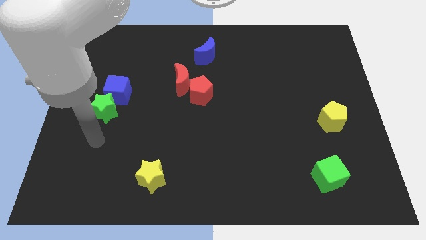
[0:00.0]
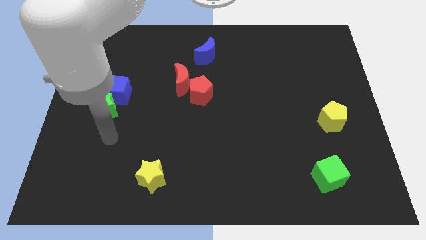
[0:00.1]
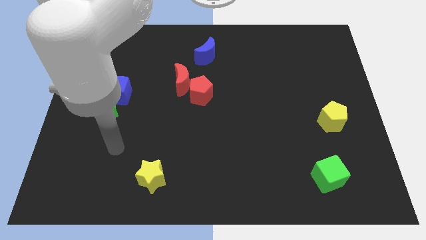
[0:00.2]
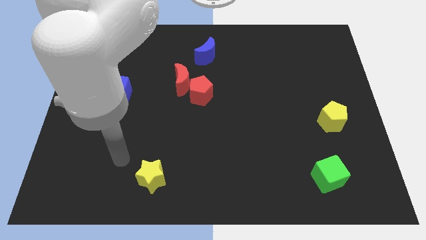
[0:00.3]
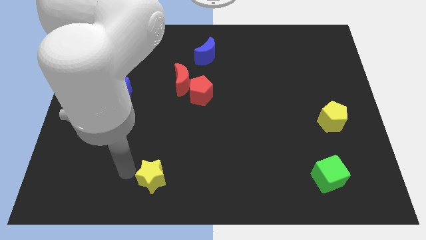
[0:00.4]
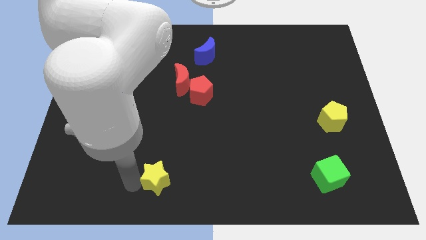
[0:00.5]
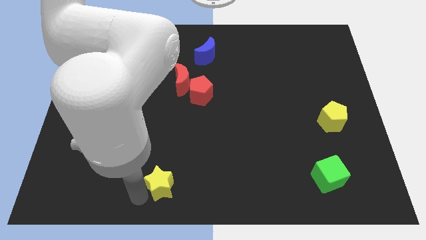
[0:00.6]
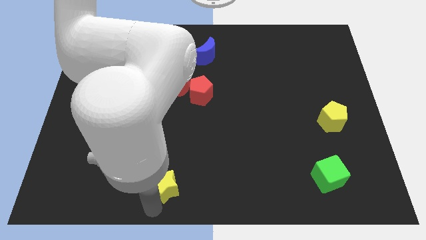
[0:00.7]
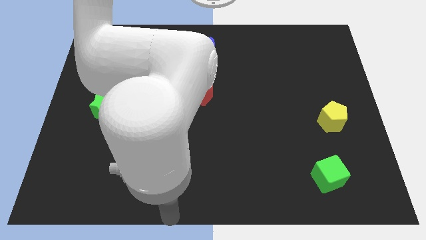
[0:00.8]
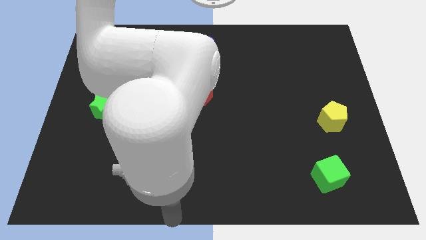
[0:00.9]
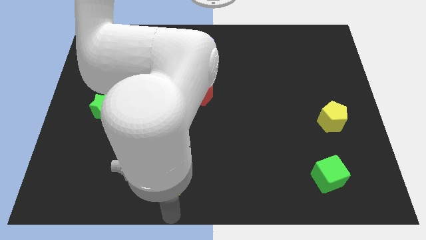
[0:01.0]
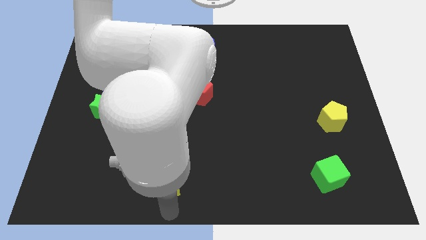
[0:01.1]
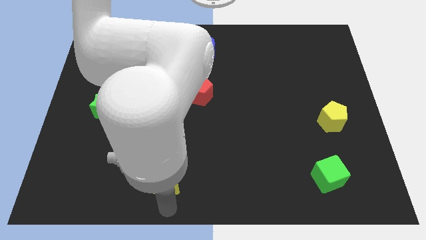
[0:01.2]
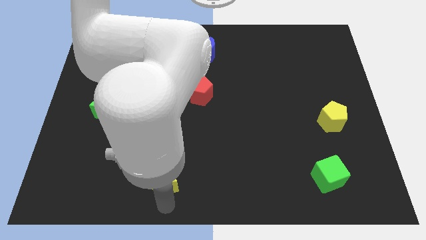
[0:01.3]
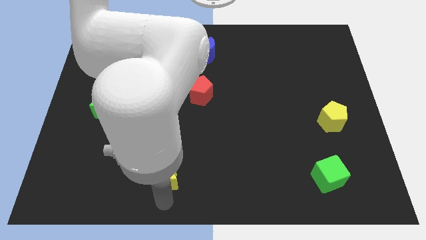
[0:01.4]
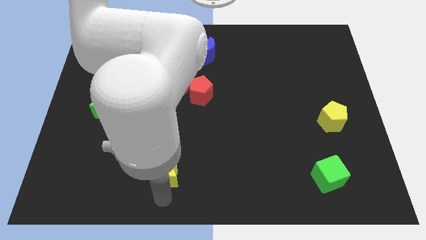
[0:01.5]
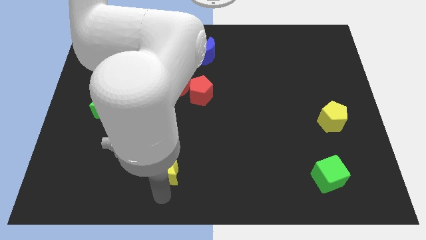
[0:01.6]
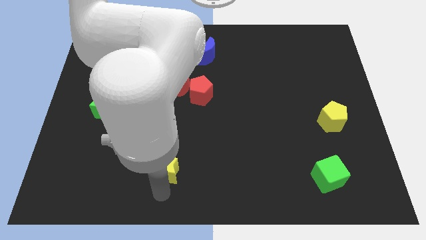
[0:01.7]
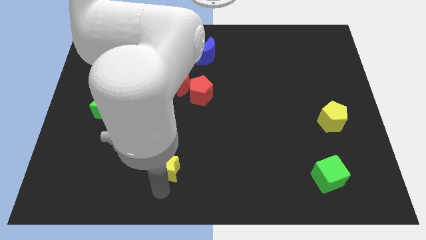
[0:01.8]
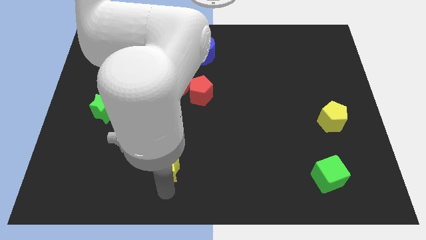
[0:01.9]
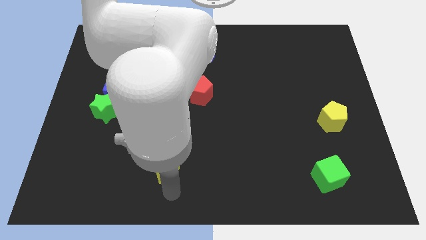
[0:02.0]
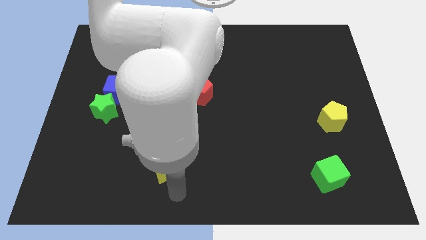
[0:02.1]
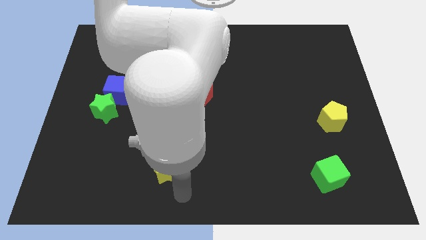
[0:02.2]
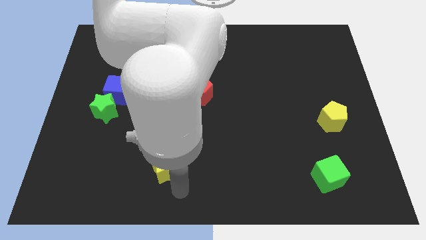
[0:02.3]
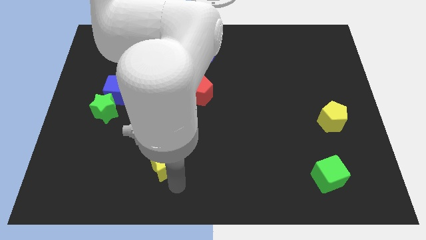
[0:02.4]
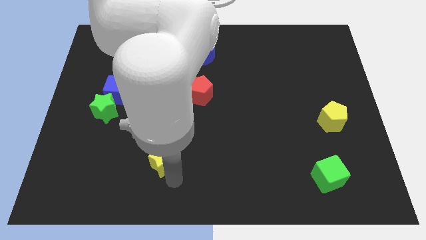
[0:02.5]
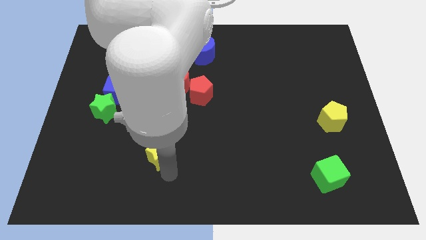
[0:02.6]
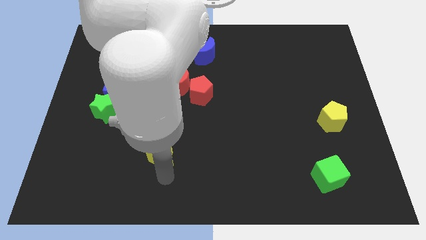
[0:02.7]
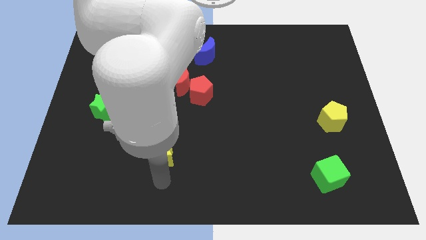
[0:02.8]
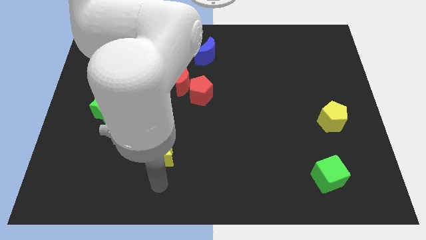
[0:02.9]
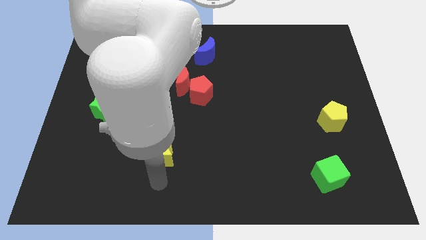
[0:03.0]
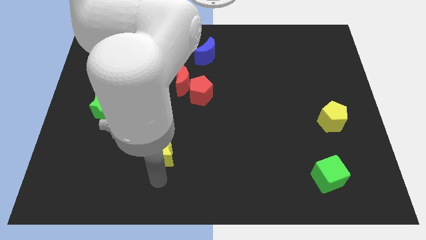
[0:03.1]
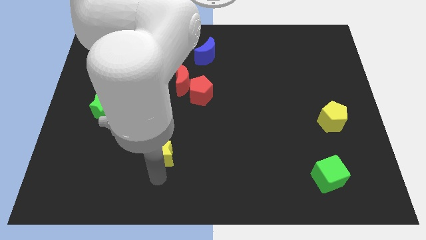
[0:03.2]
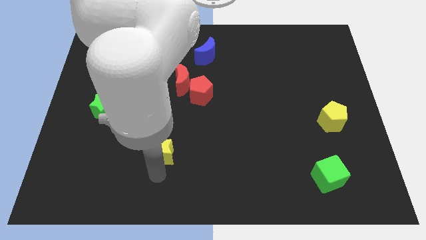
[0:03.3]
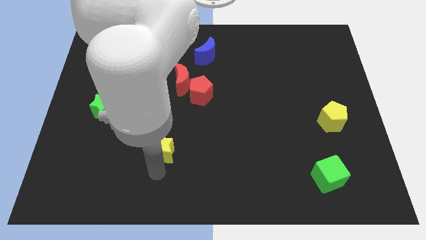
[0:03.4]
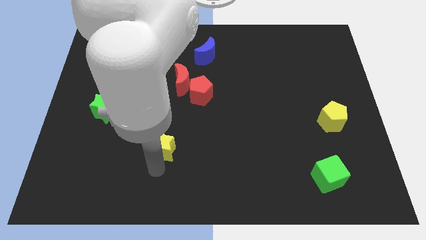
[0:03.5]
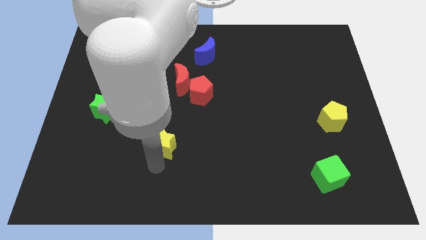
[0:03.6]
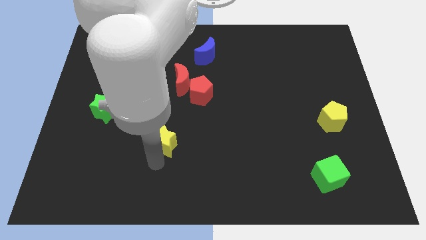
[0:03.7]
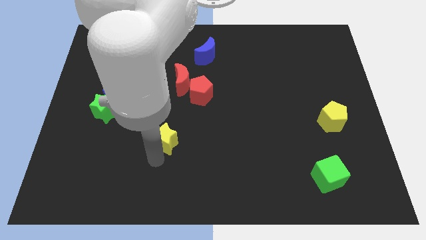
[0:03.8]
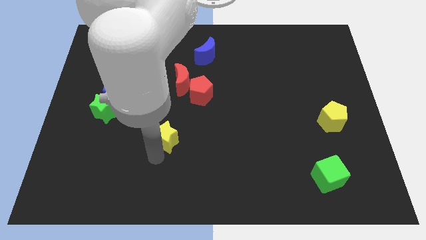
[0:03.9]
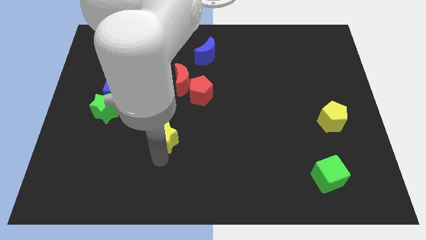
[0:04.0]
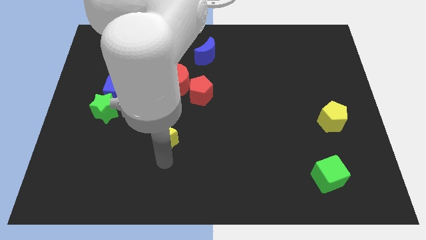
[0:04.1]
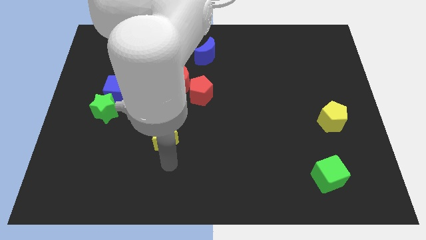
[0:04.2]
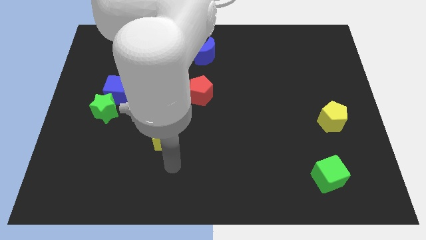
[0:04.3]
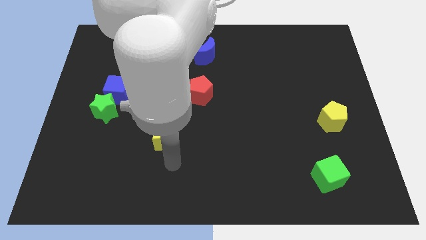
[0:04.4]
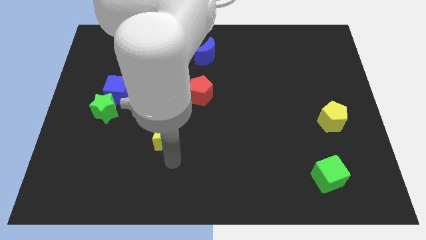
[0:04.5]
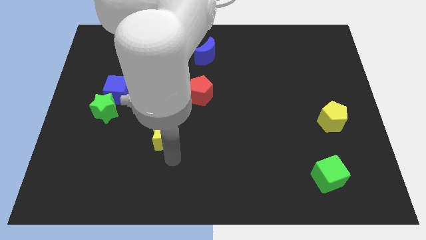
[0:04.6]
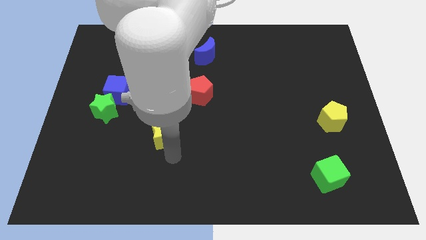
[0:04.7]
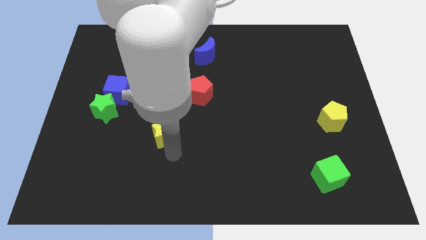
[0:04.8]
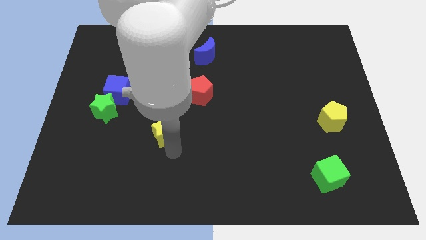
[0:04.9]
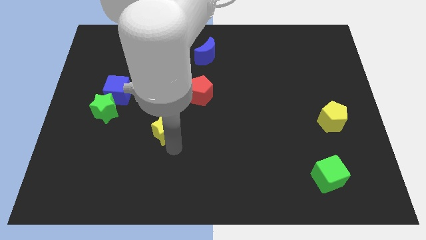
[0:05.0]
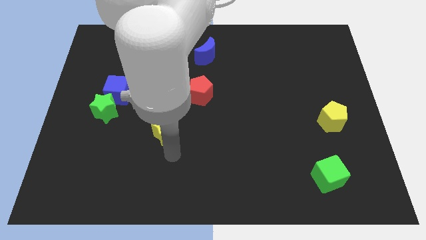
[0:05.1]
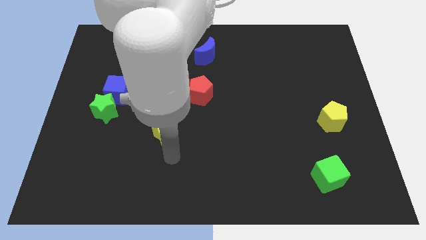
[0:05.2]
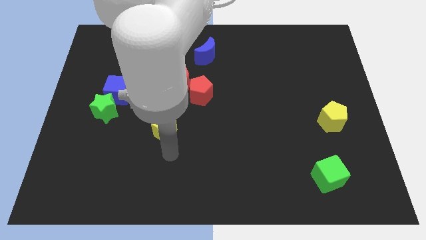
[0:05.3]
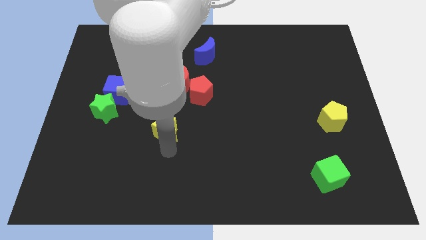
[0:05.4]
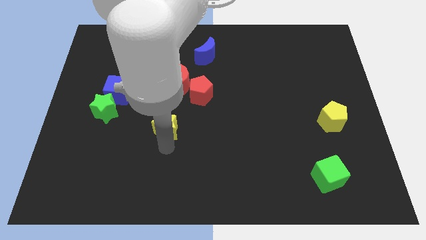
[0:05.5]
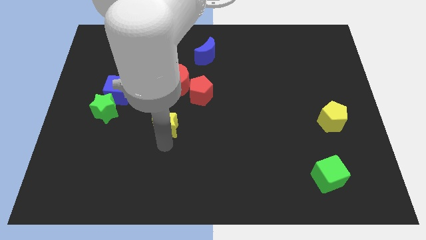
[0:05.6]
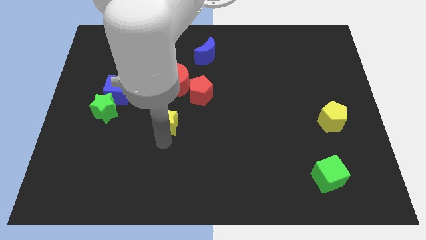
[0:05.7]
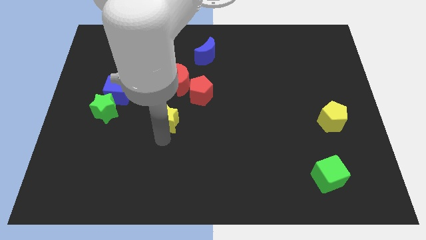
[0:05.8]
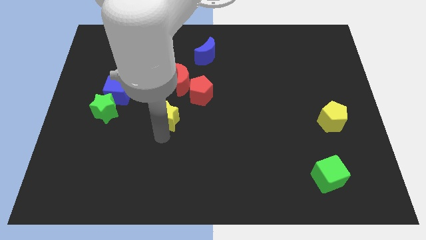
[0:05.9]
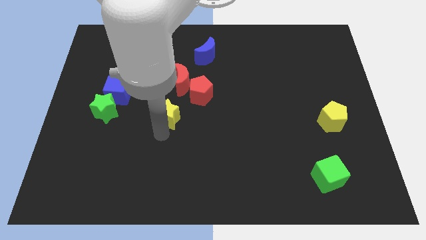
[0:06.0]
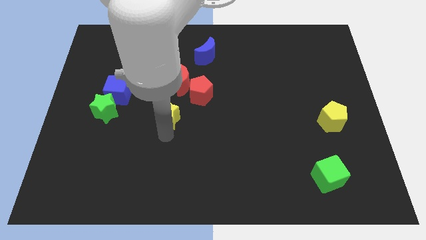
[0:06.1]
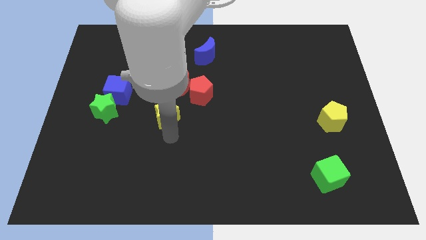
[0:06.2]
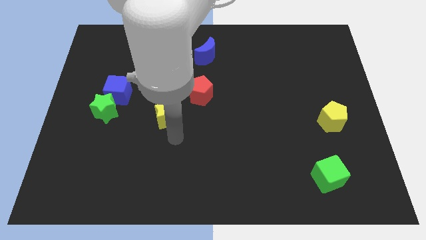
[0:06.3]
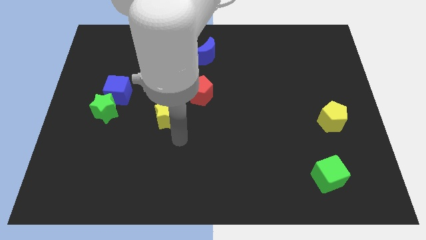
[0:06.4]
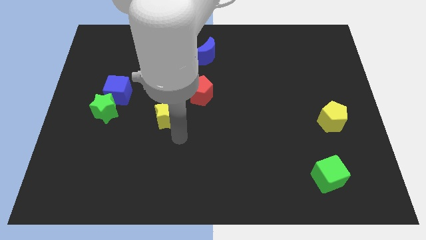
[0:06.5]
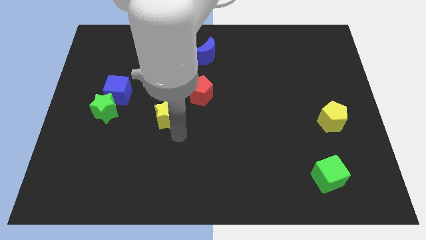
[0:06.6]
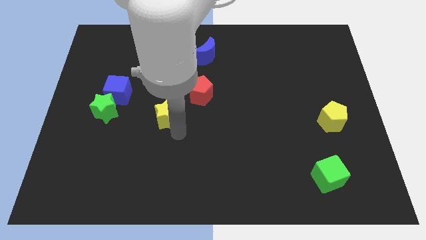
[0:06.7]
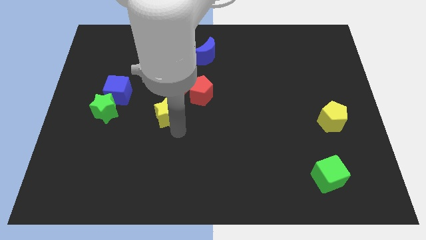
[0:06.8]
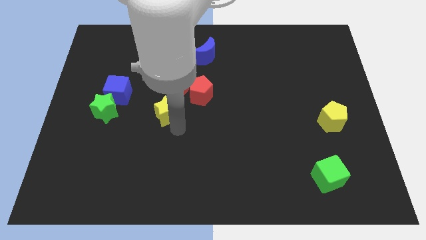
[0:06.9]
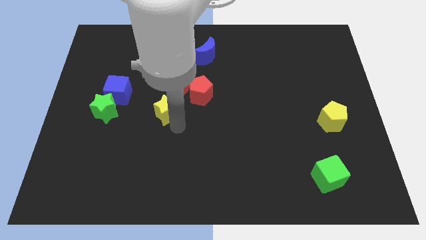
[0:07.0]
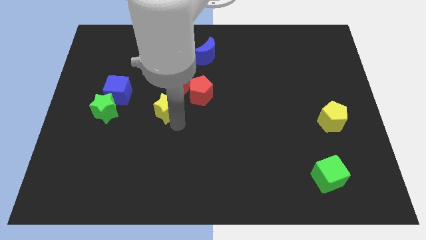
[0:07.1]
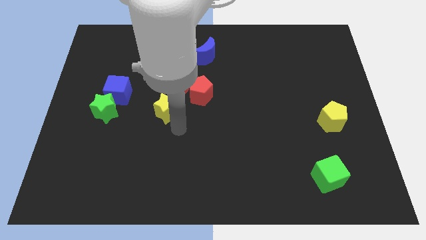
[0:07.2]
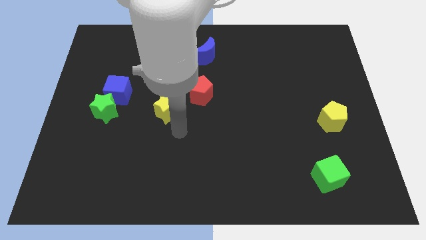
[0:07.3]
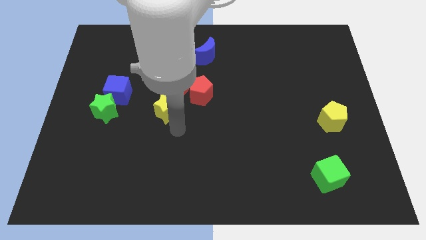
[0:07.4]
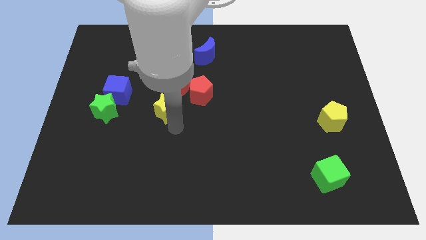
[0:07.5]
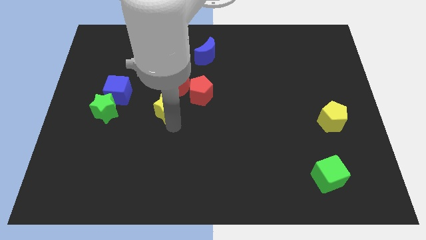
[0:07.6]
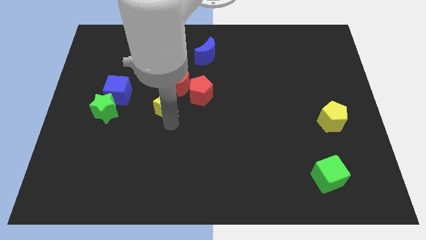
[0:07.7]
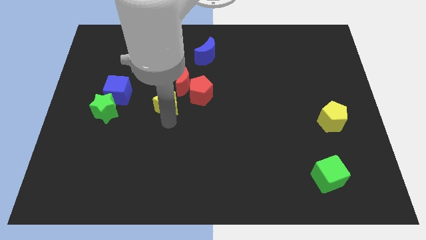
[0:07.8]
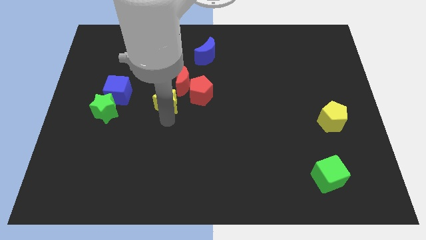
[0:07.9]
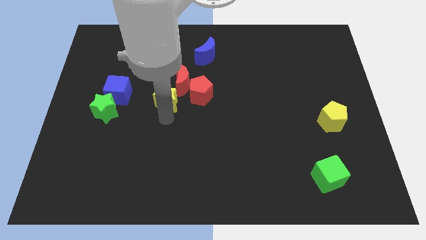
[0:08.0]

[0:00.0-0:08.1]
slide the yellow star up
